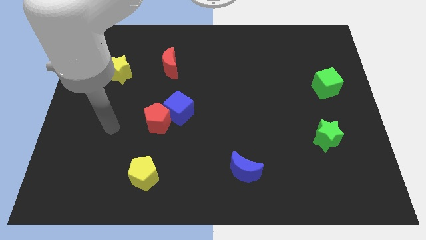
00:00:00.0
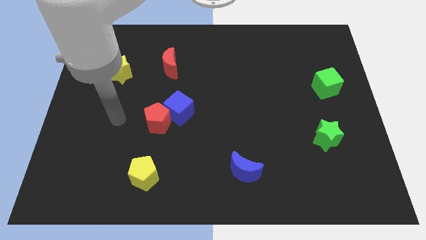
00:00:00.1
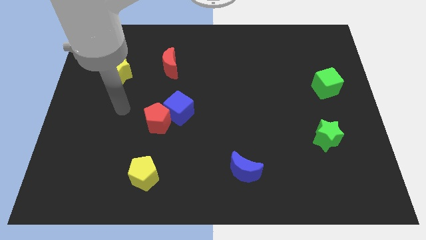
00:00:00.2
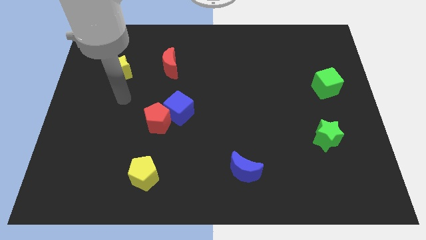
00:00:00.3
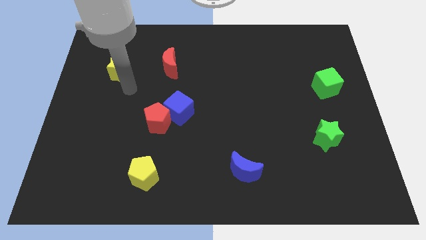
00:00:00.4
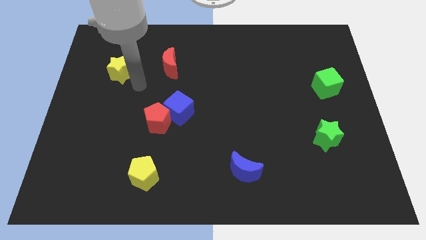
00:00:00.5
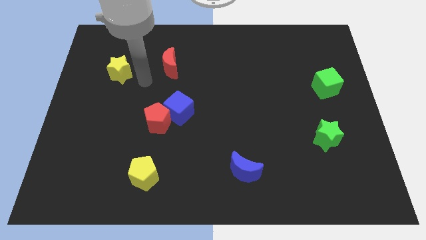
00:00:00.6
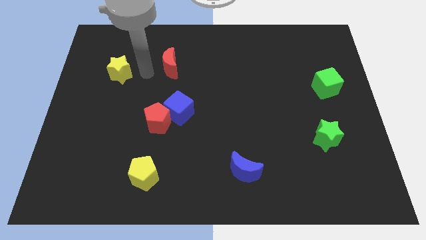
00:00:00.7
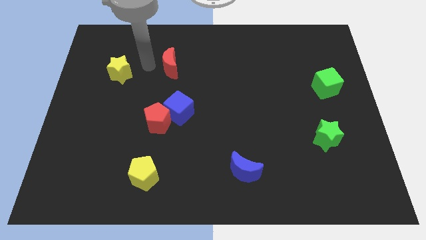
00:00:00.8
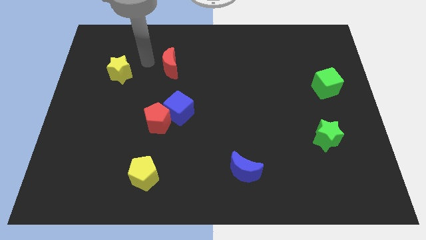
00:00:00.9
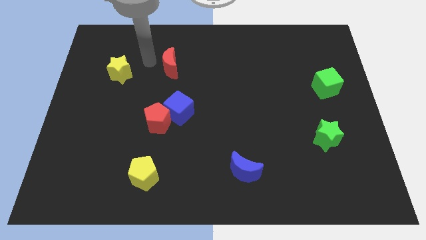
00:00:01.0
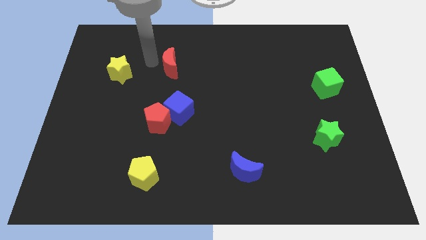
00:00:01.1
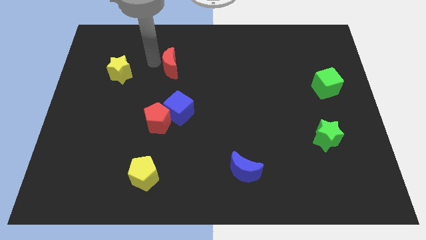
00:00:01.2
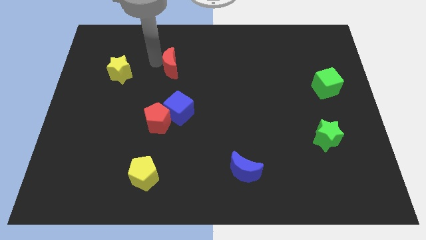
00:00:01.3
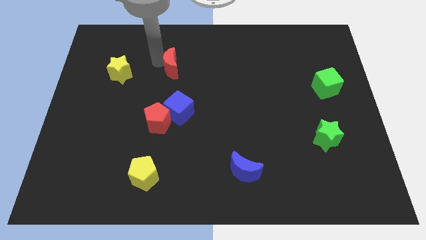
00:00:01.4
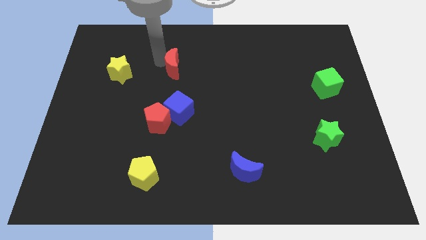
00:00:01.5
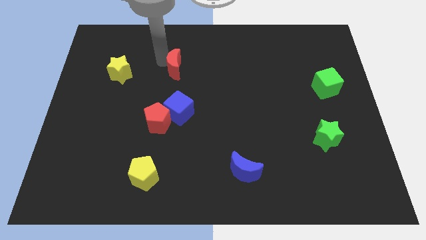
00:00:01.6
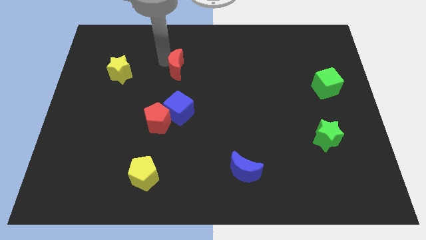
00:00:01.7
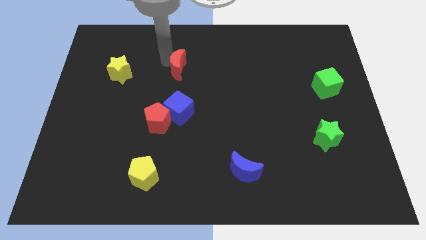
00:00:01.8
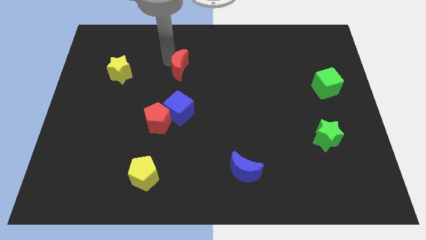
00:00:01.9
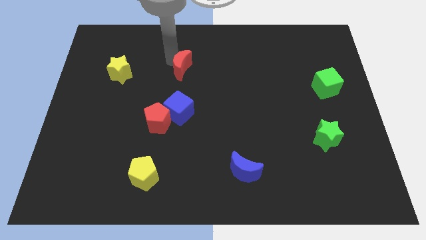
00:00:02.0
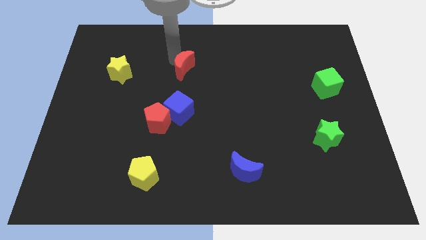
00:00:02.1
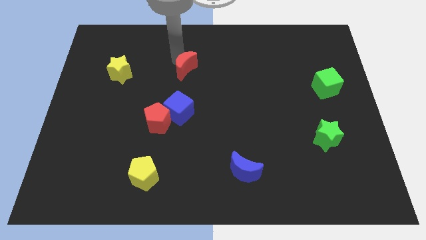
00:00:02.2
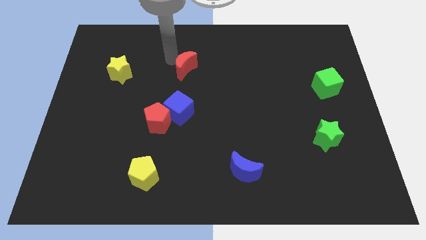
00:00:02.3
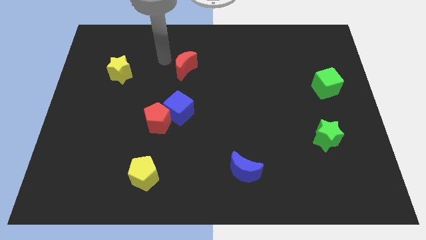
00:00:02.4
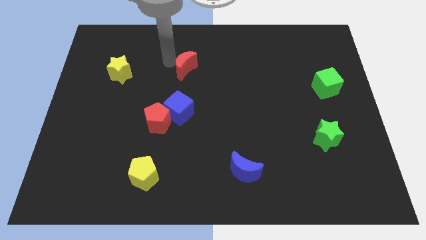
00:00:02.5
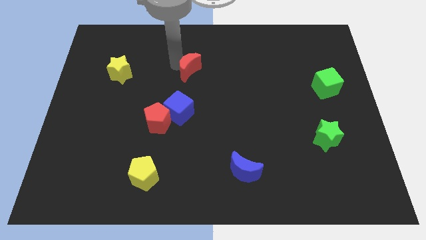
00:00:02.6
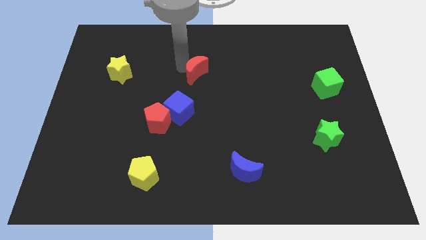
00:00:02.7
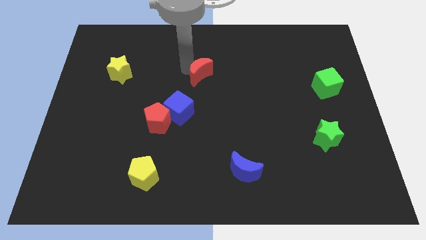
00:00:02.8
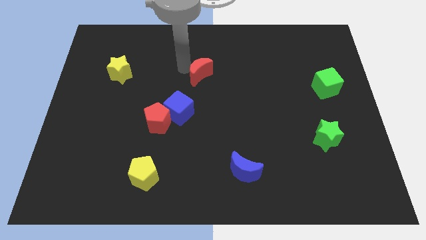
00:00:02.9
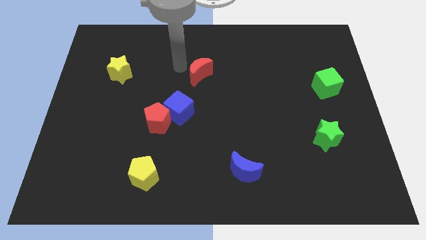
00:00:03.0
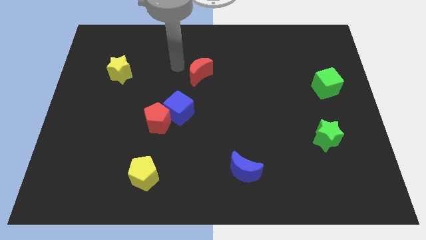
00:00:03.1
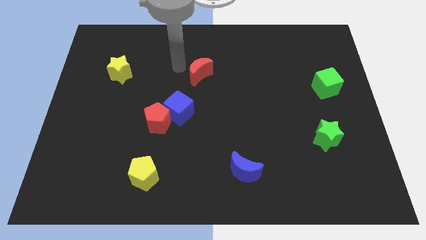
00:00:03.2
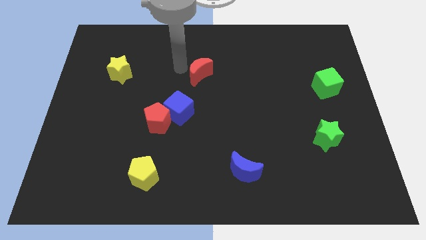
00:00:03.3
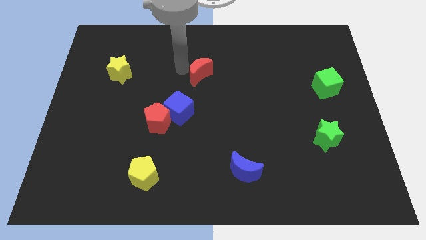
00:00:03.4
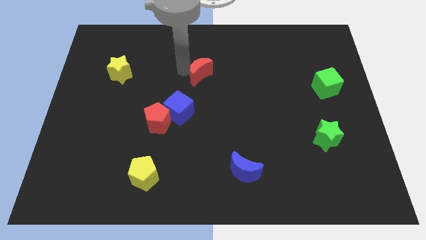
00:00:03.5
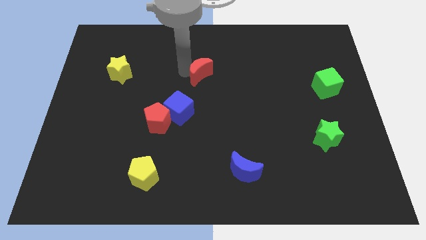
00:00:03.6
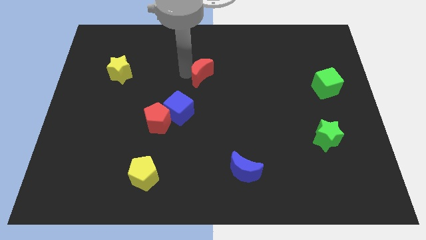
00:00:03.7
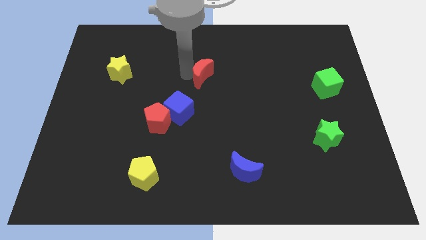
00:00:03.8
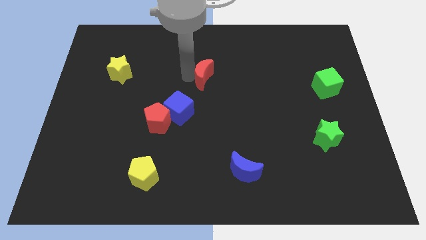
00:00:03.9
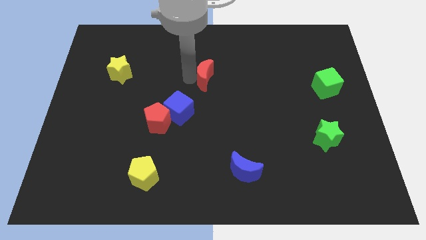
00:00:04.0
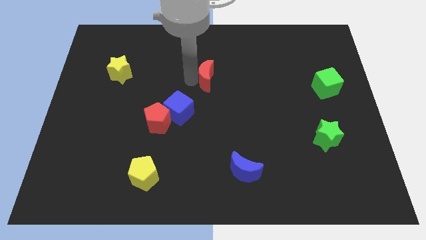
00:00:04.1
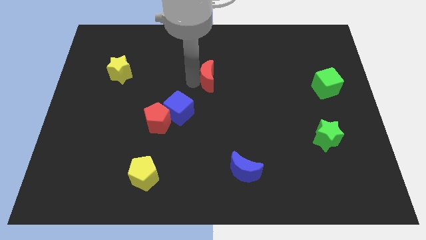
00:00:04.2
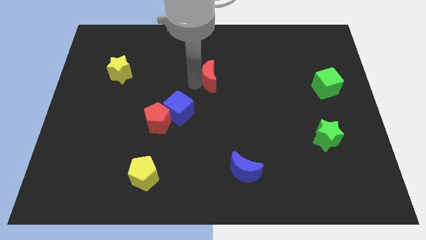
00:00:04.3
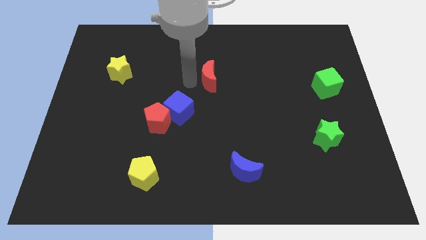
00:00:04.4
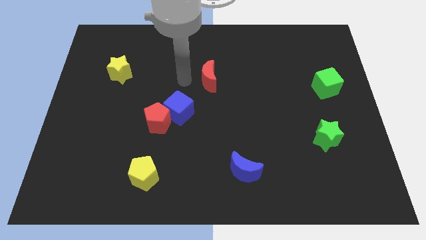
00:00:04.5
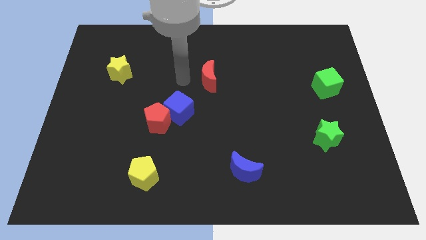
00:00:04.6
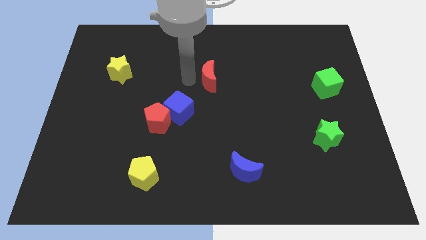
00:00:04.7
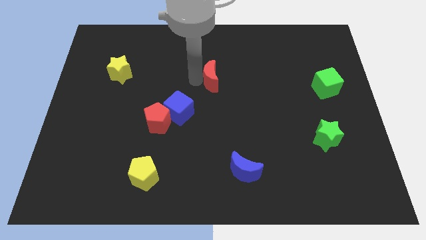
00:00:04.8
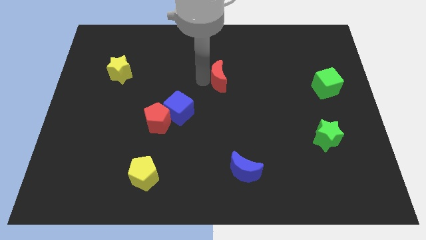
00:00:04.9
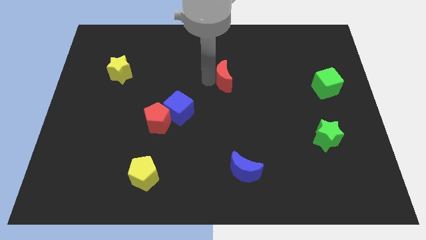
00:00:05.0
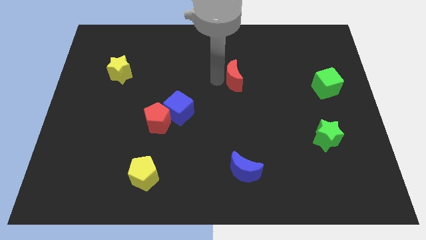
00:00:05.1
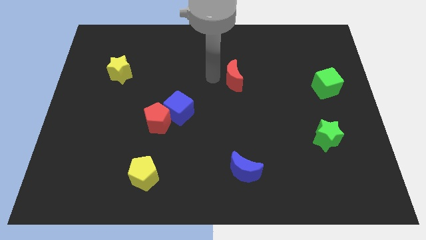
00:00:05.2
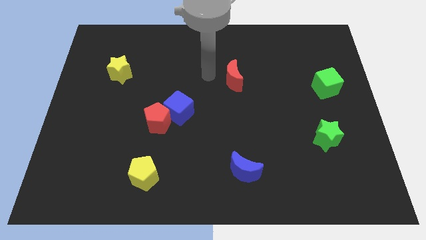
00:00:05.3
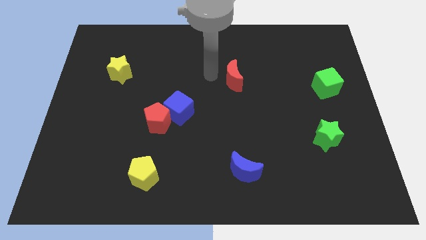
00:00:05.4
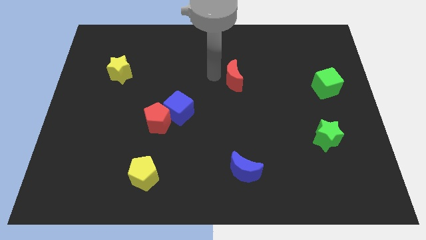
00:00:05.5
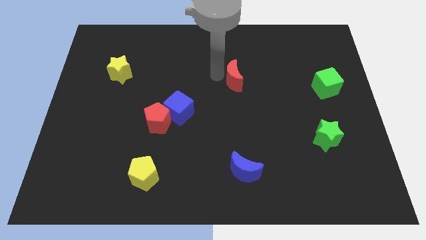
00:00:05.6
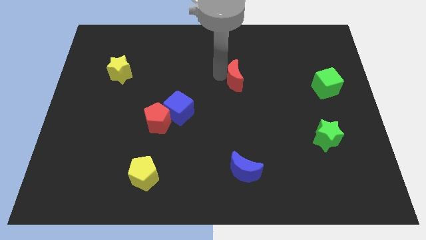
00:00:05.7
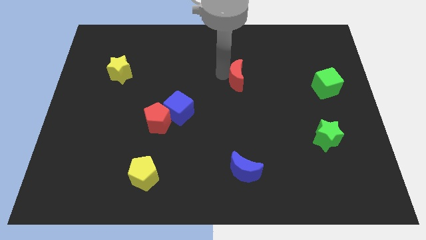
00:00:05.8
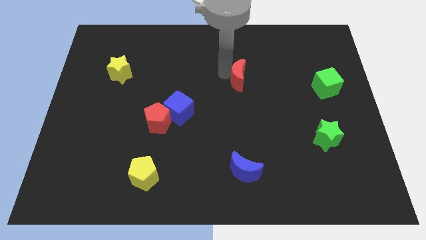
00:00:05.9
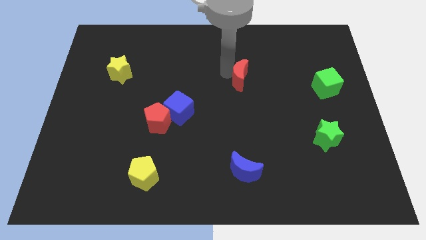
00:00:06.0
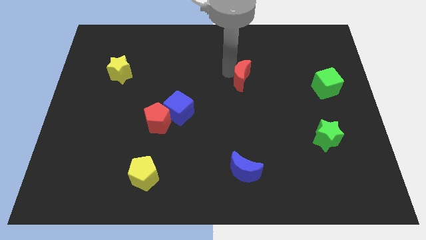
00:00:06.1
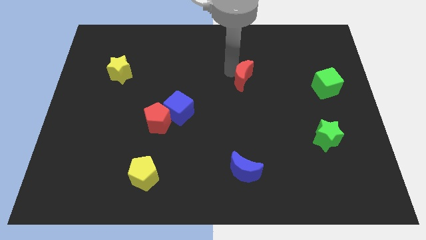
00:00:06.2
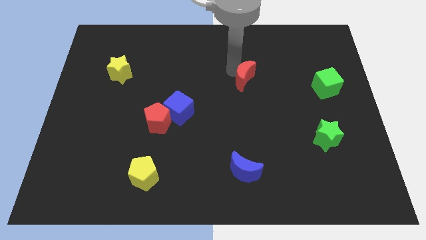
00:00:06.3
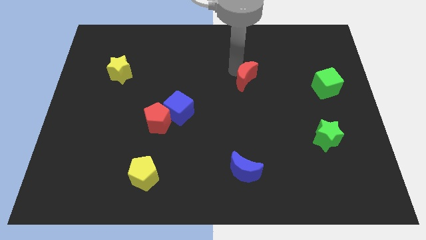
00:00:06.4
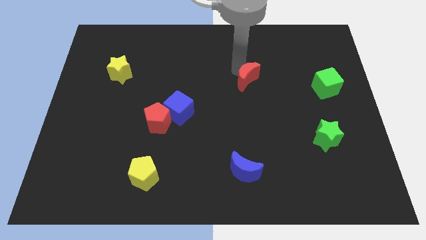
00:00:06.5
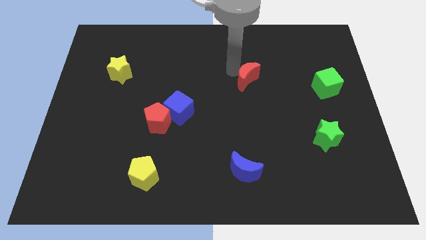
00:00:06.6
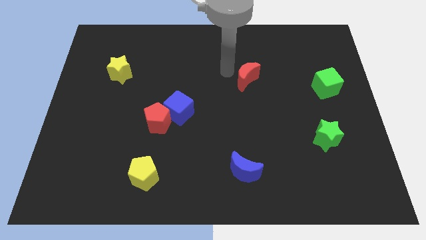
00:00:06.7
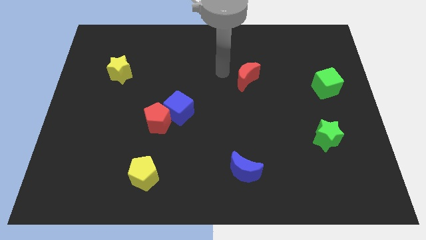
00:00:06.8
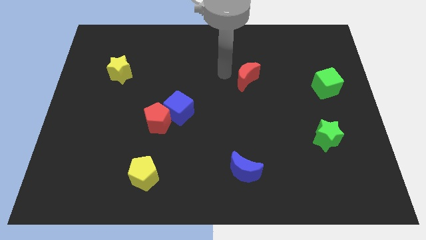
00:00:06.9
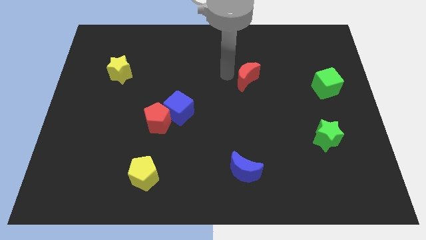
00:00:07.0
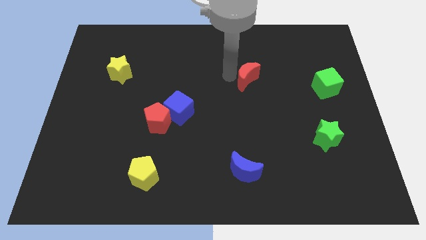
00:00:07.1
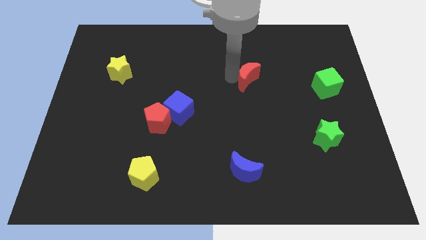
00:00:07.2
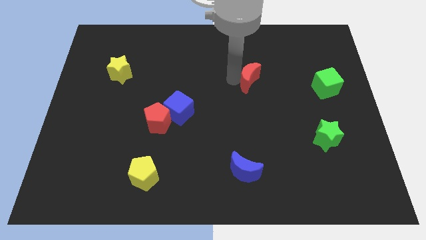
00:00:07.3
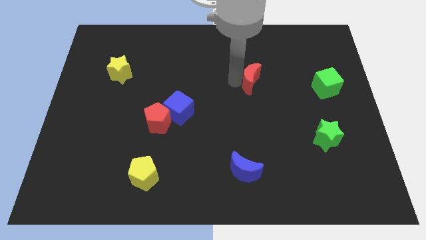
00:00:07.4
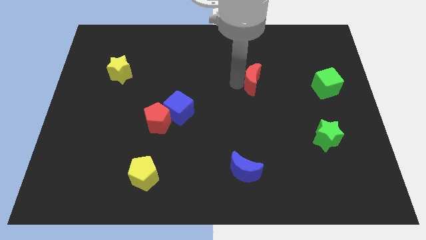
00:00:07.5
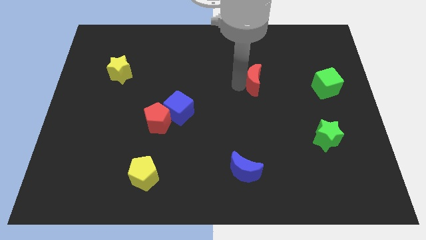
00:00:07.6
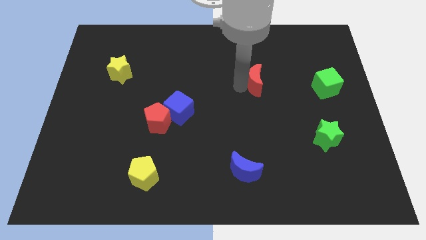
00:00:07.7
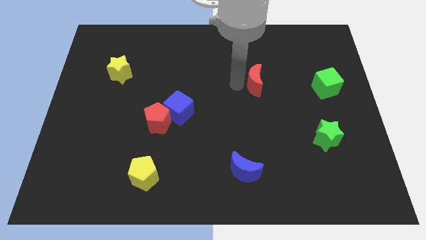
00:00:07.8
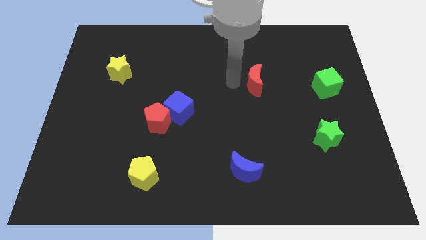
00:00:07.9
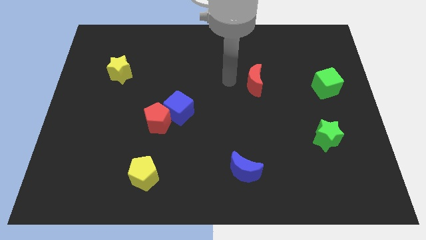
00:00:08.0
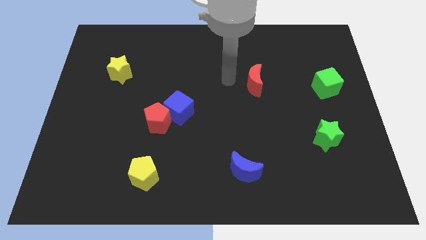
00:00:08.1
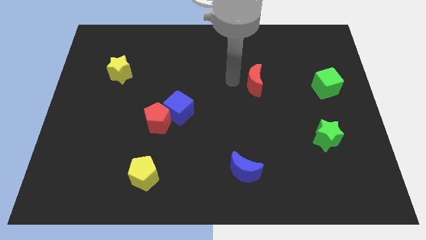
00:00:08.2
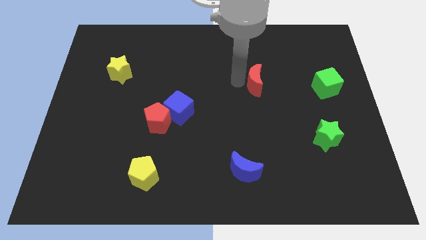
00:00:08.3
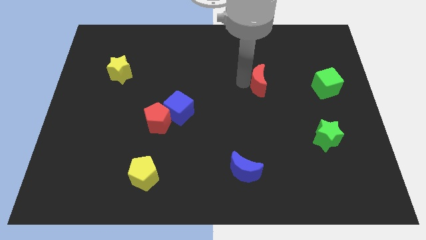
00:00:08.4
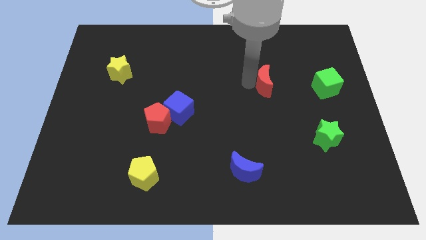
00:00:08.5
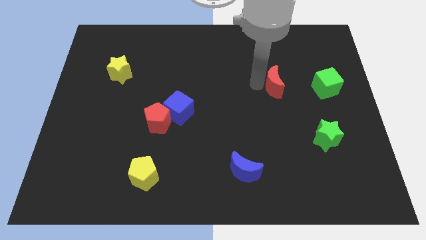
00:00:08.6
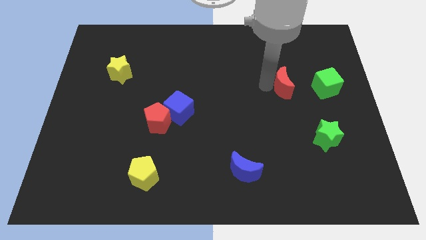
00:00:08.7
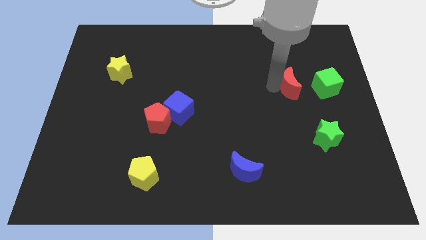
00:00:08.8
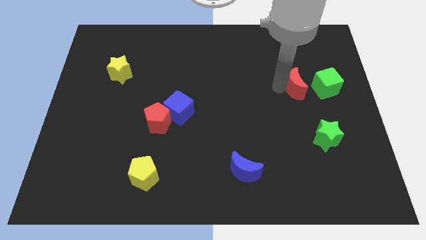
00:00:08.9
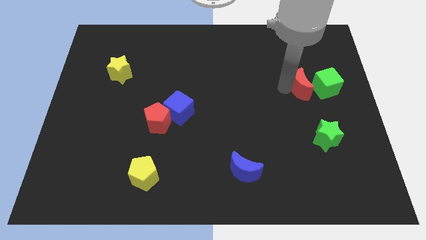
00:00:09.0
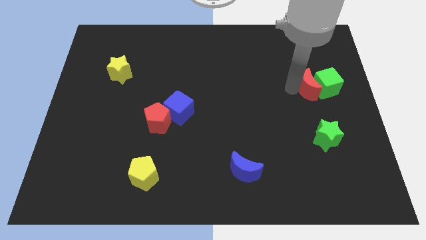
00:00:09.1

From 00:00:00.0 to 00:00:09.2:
push the red moon close to the green cube
